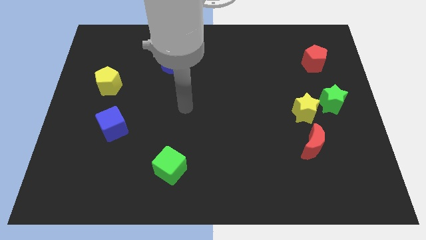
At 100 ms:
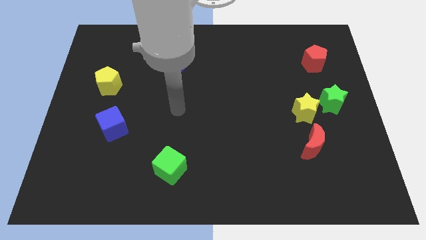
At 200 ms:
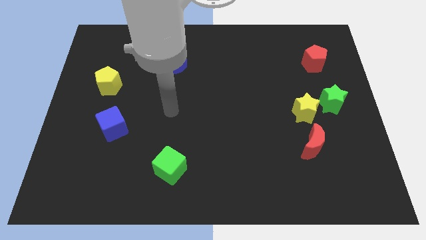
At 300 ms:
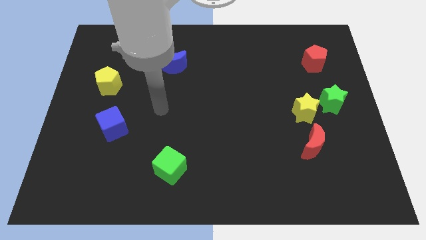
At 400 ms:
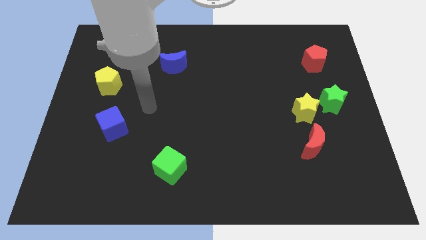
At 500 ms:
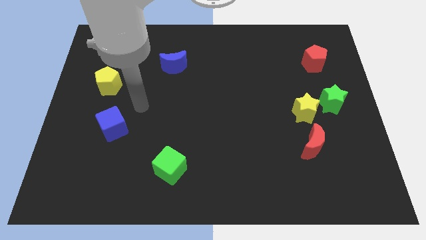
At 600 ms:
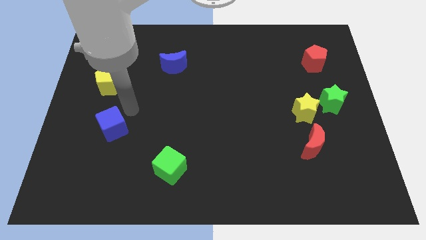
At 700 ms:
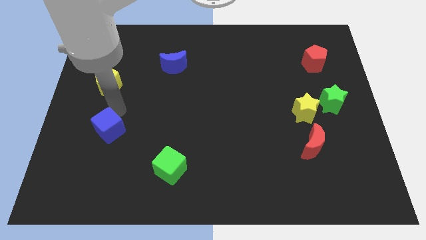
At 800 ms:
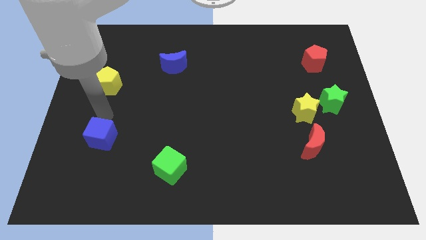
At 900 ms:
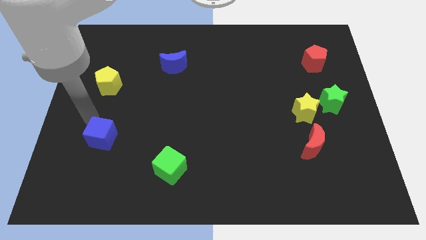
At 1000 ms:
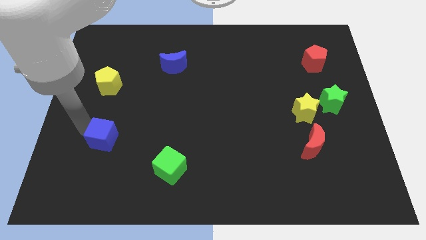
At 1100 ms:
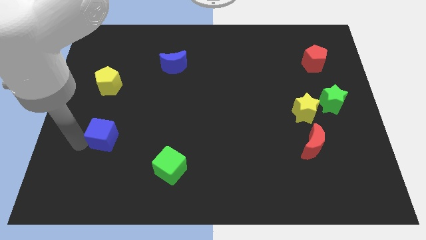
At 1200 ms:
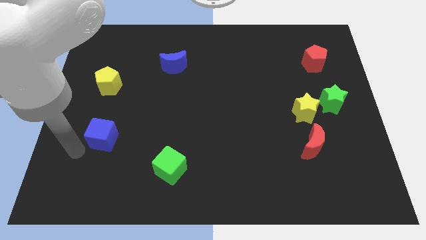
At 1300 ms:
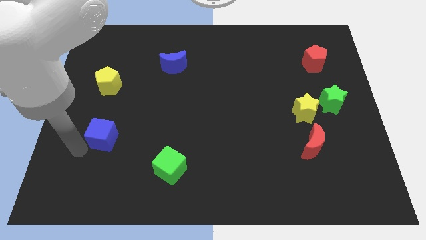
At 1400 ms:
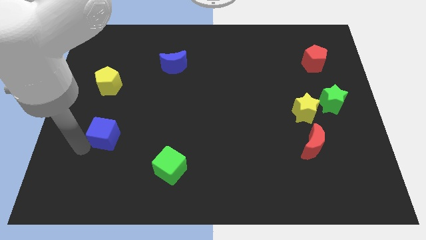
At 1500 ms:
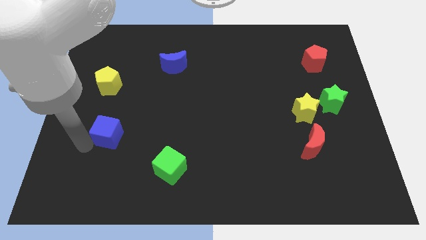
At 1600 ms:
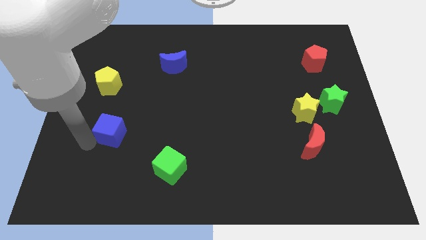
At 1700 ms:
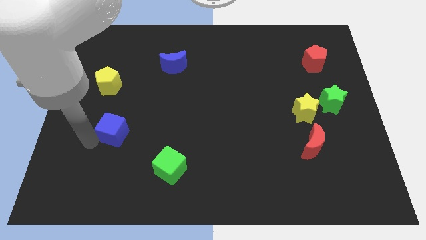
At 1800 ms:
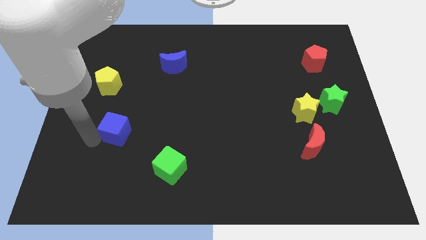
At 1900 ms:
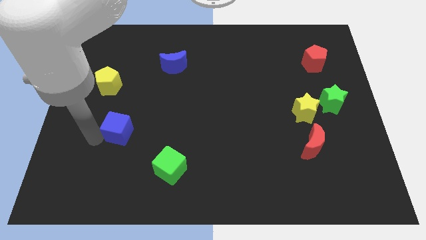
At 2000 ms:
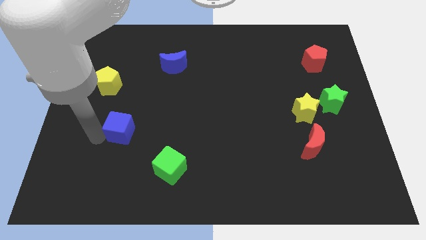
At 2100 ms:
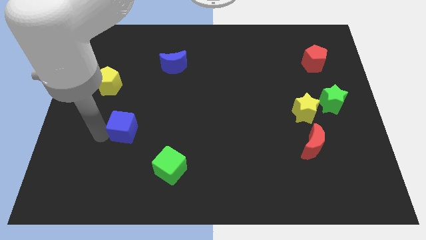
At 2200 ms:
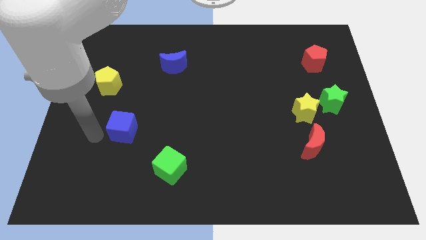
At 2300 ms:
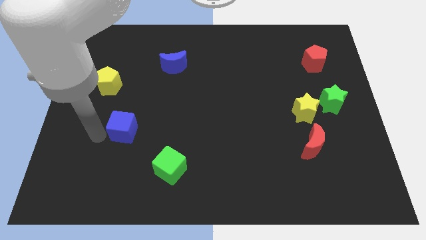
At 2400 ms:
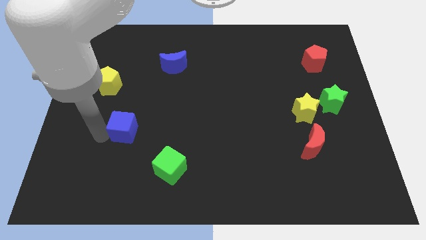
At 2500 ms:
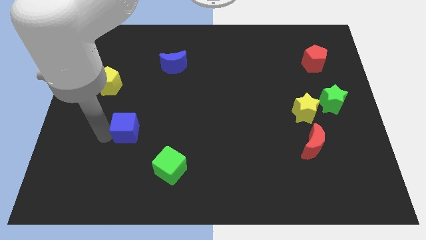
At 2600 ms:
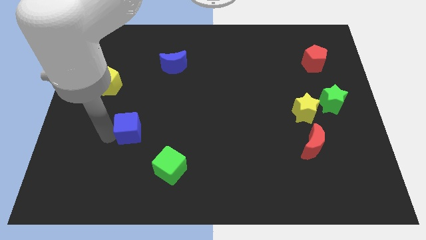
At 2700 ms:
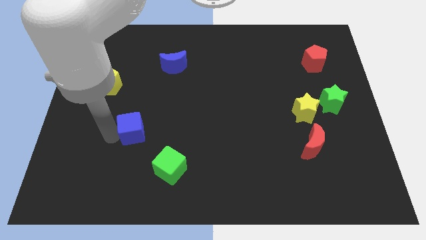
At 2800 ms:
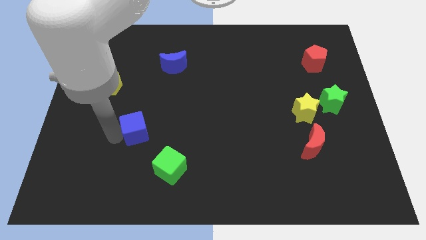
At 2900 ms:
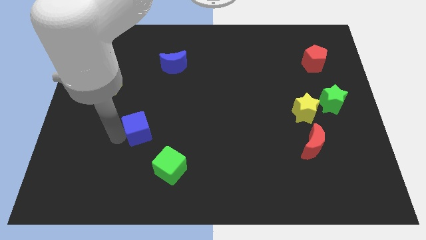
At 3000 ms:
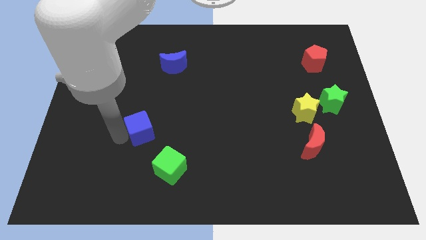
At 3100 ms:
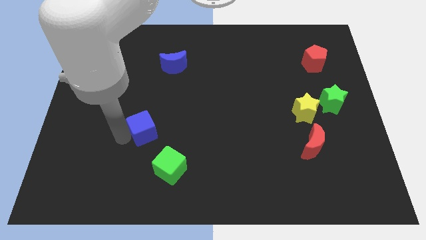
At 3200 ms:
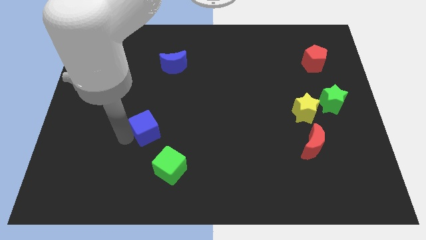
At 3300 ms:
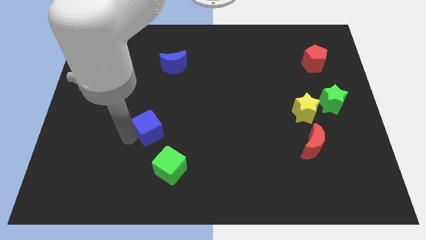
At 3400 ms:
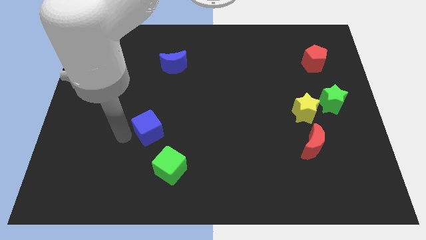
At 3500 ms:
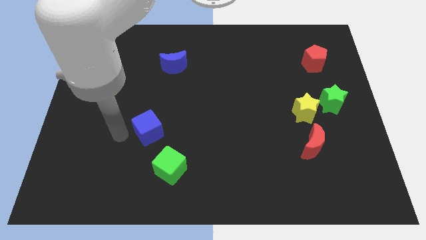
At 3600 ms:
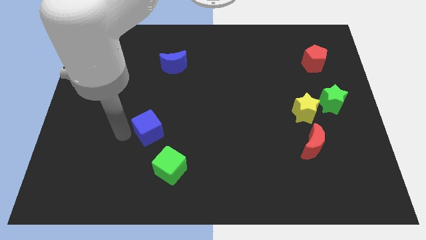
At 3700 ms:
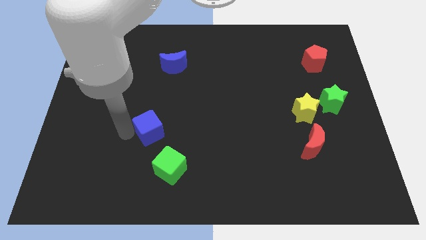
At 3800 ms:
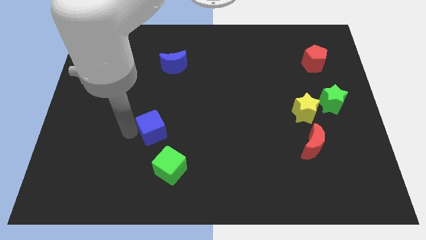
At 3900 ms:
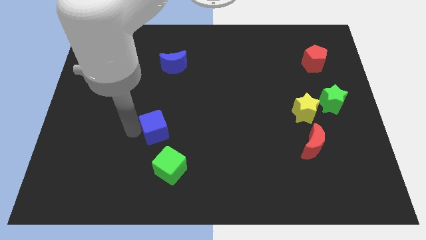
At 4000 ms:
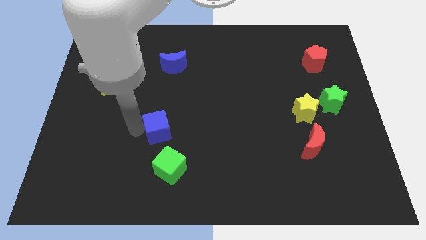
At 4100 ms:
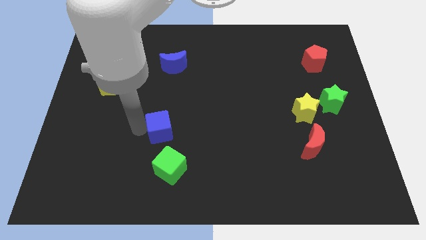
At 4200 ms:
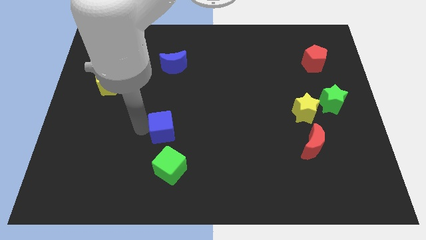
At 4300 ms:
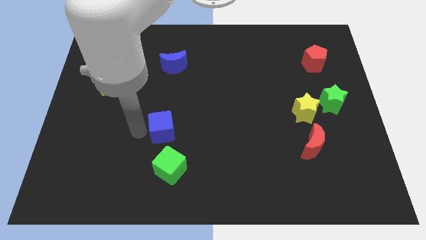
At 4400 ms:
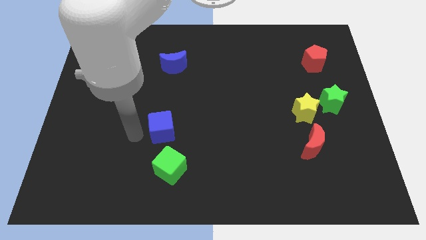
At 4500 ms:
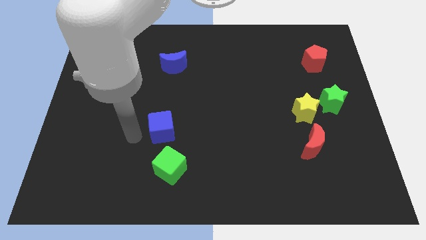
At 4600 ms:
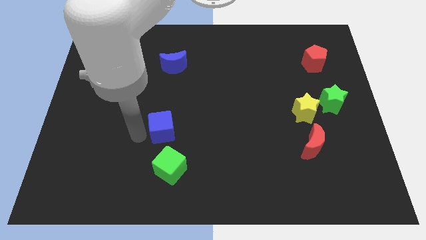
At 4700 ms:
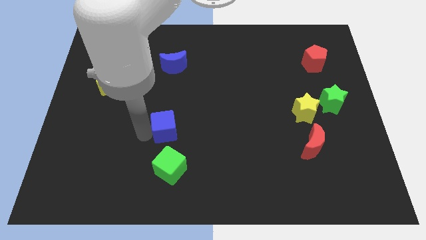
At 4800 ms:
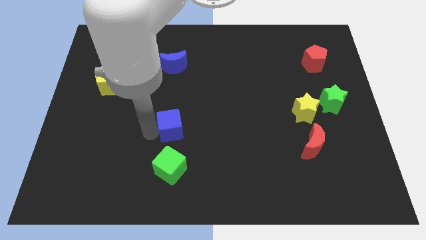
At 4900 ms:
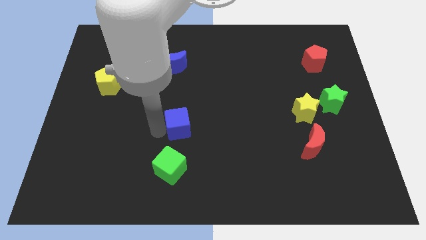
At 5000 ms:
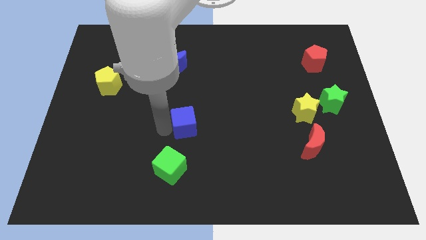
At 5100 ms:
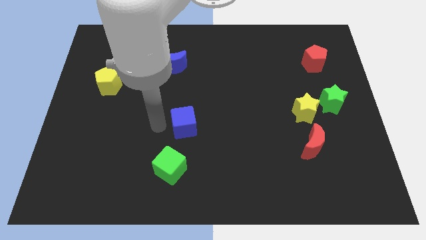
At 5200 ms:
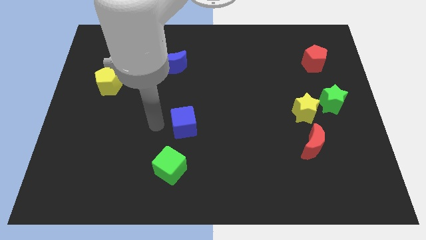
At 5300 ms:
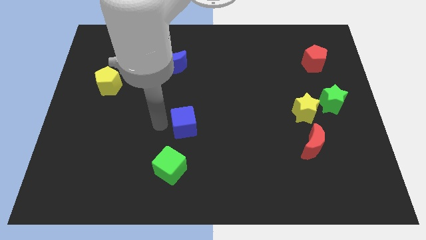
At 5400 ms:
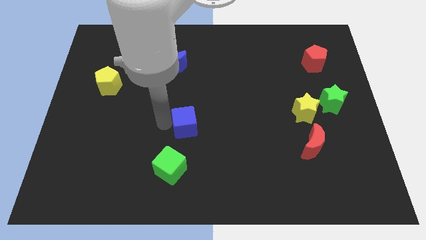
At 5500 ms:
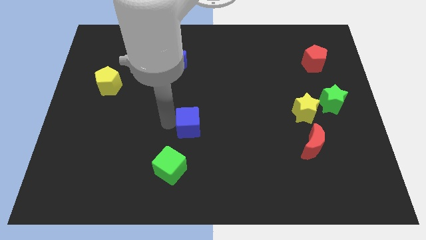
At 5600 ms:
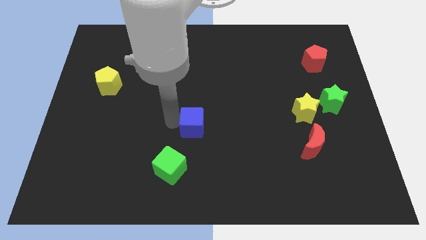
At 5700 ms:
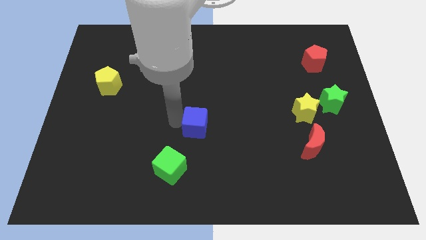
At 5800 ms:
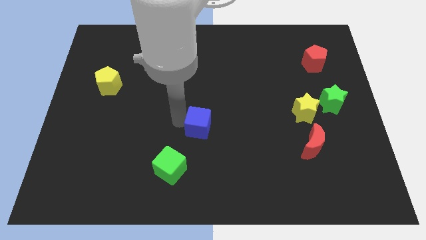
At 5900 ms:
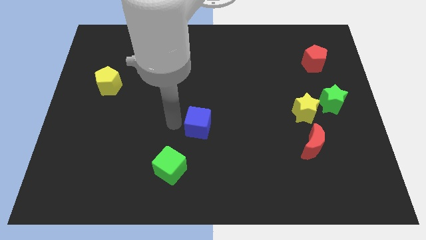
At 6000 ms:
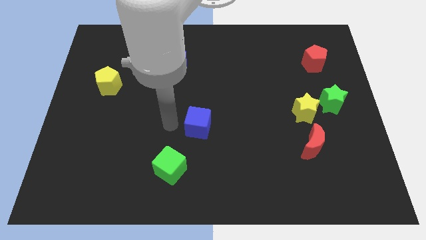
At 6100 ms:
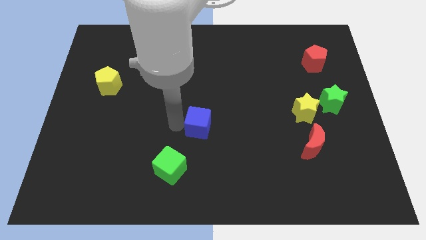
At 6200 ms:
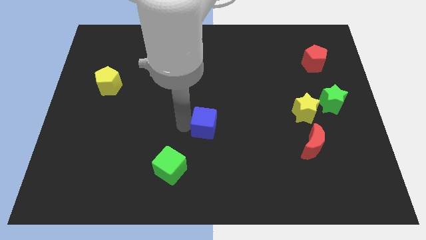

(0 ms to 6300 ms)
push the blue cube to the right

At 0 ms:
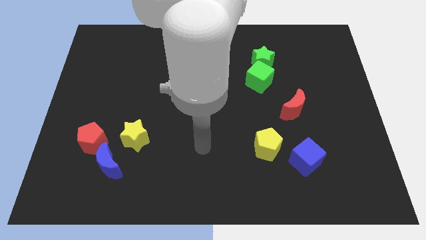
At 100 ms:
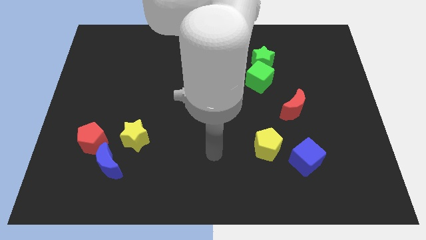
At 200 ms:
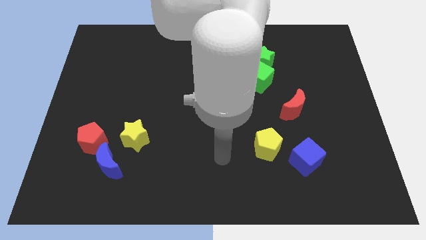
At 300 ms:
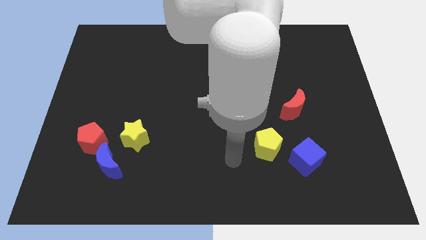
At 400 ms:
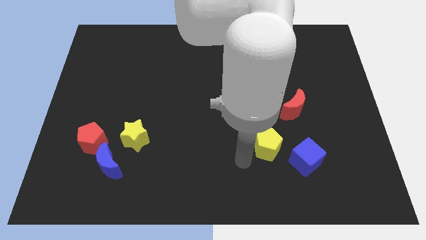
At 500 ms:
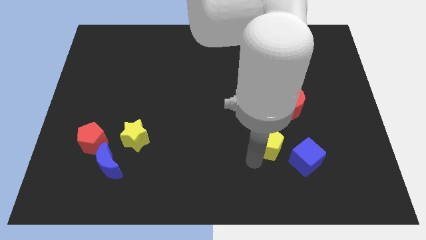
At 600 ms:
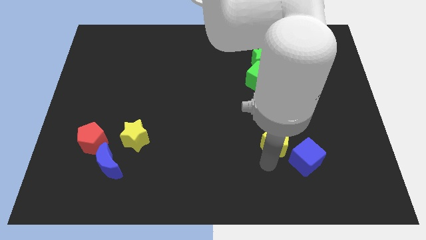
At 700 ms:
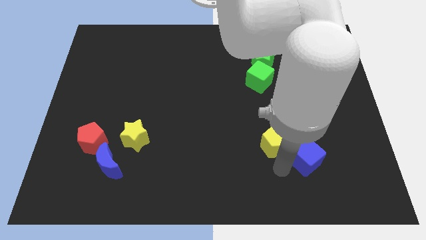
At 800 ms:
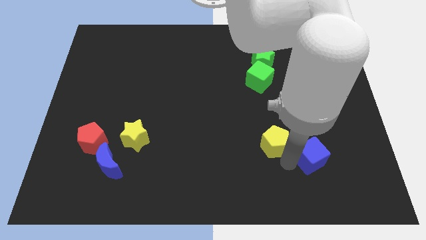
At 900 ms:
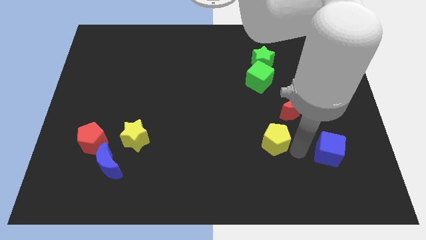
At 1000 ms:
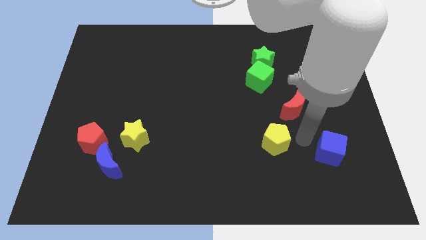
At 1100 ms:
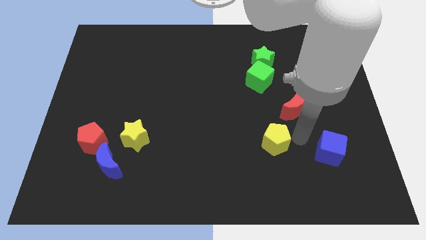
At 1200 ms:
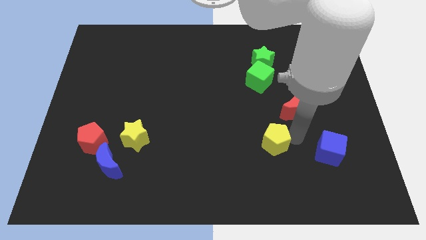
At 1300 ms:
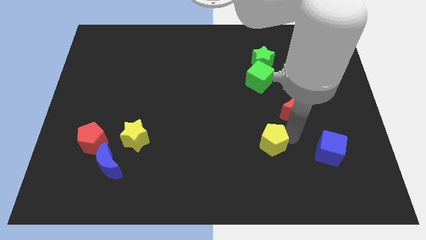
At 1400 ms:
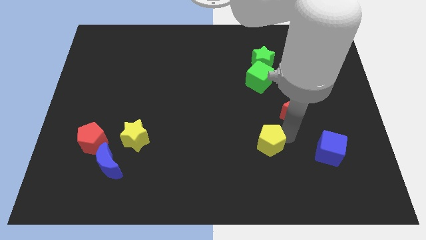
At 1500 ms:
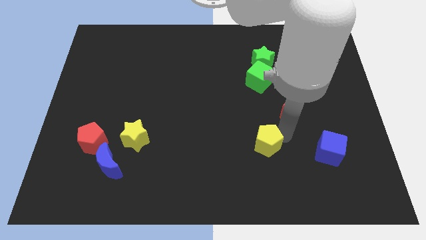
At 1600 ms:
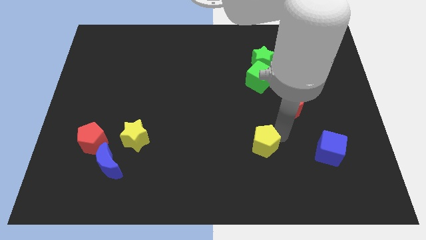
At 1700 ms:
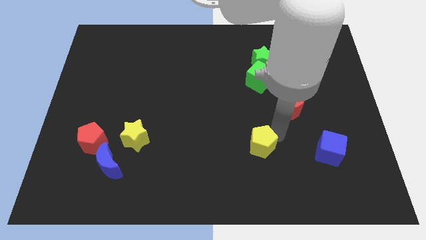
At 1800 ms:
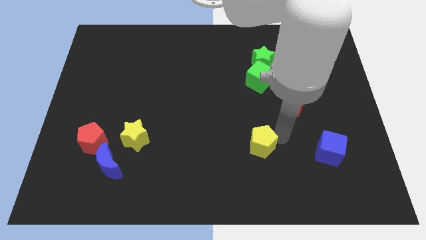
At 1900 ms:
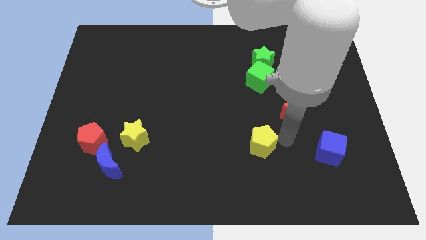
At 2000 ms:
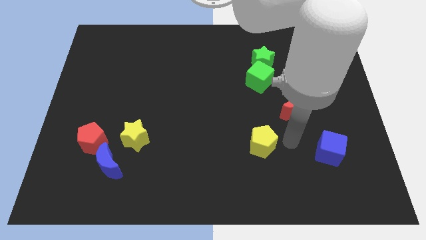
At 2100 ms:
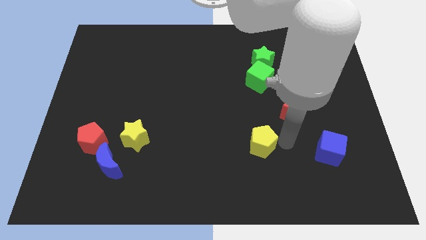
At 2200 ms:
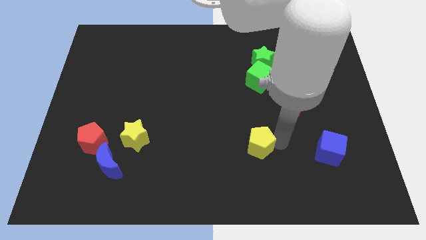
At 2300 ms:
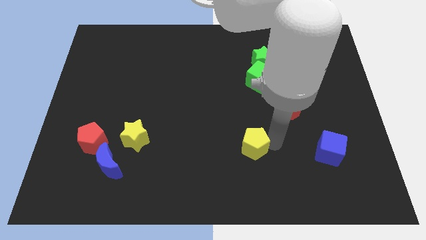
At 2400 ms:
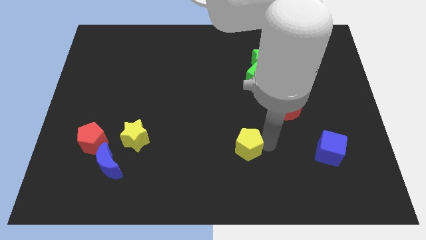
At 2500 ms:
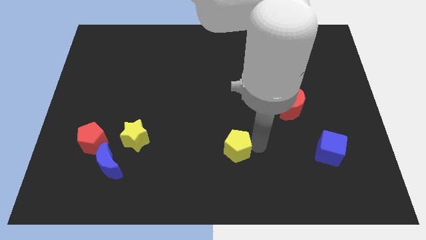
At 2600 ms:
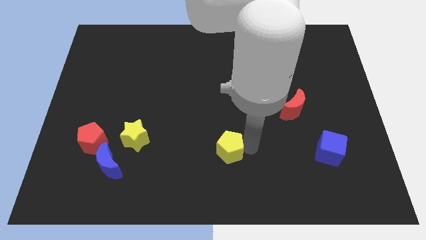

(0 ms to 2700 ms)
slightly slide the yellow pentagon to the left
